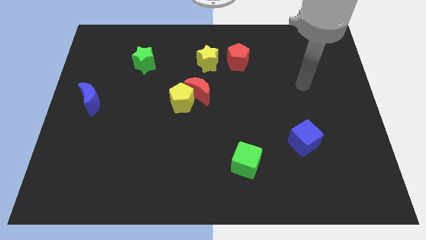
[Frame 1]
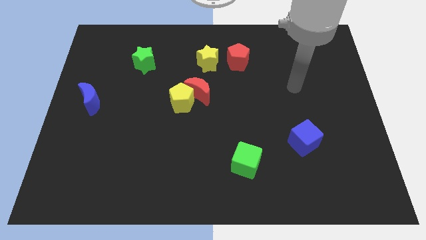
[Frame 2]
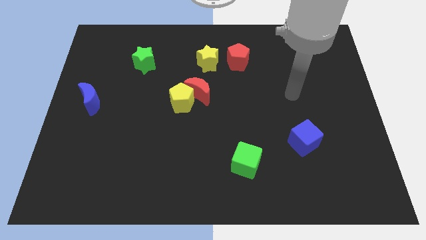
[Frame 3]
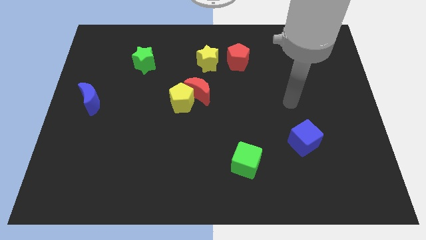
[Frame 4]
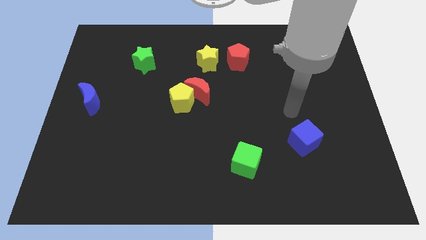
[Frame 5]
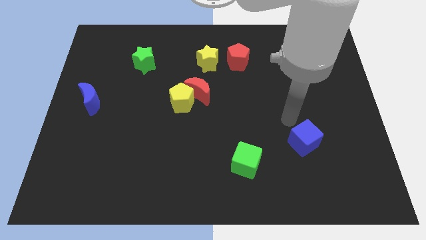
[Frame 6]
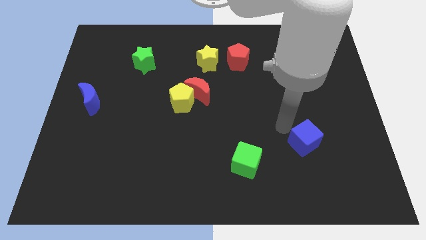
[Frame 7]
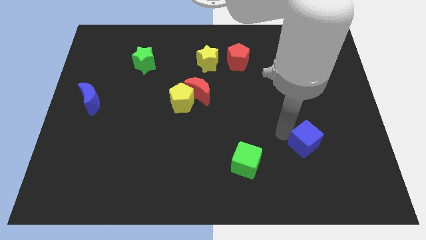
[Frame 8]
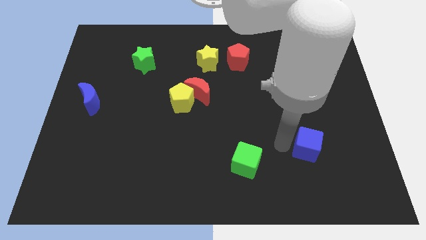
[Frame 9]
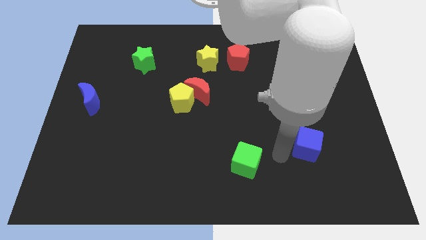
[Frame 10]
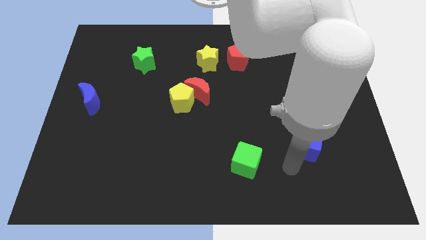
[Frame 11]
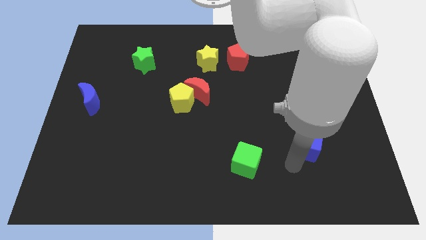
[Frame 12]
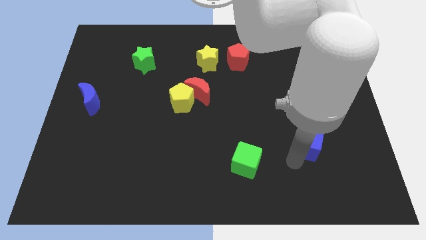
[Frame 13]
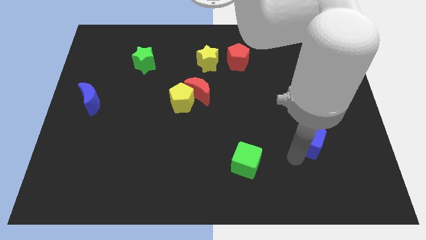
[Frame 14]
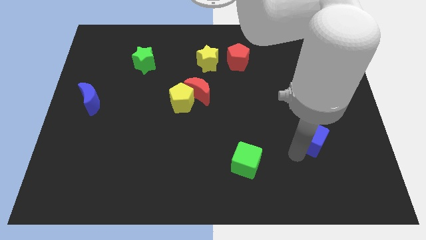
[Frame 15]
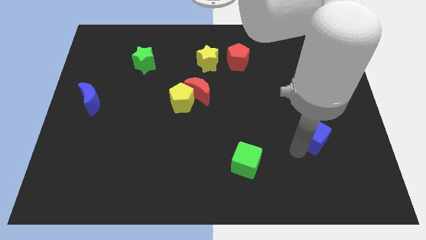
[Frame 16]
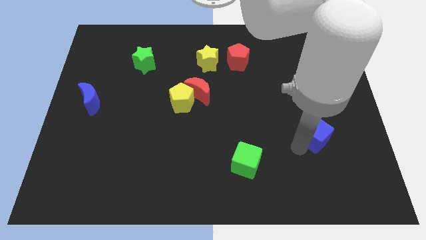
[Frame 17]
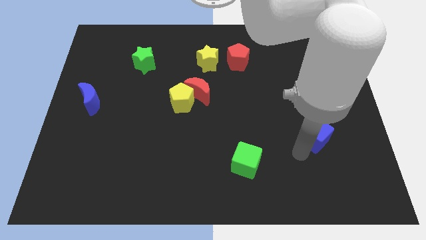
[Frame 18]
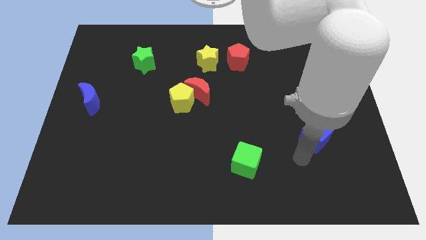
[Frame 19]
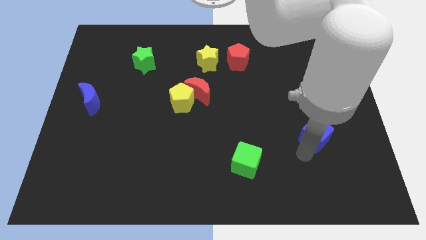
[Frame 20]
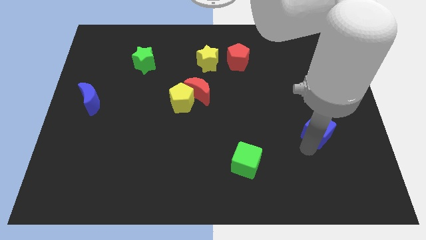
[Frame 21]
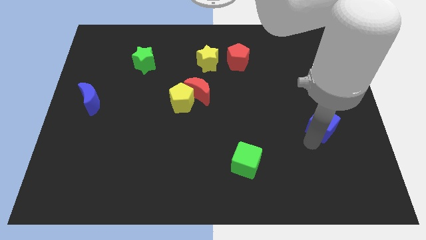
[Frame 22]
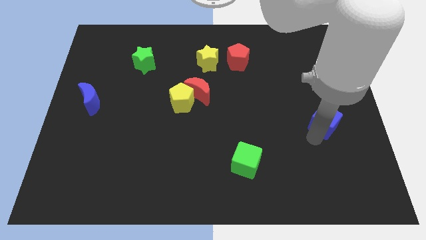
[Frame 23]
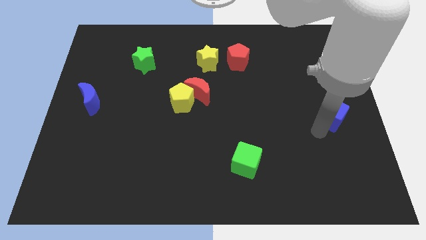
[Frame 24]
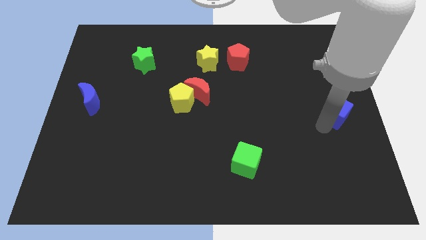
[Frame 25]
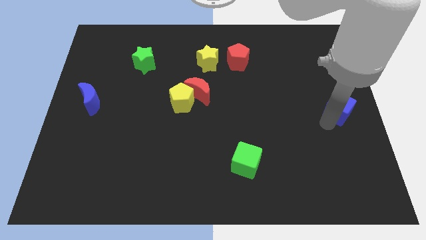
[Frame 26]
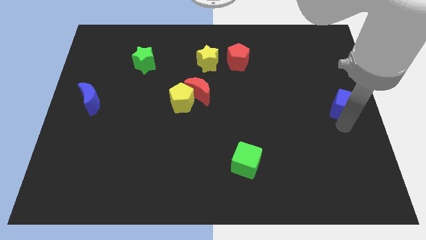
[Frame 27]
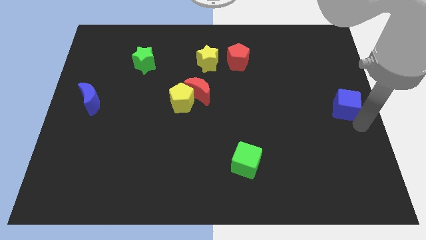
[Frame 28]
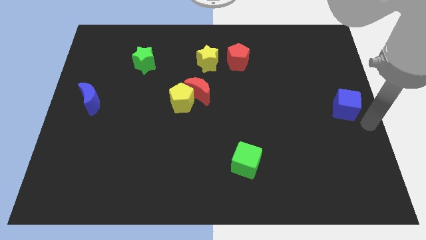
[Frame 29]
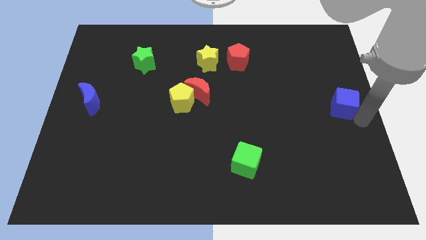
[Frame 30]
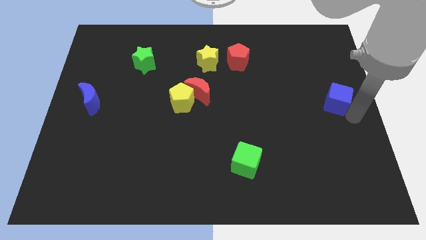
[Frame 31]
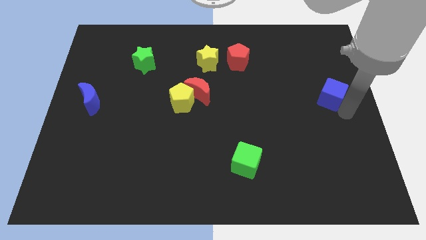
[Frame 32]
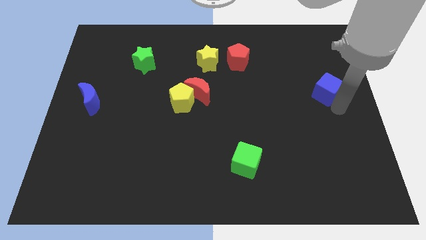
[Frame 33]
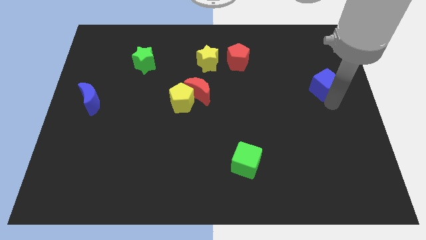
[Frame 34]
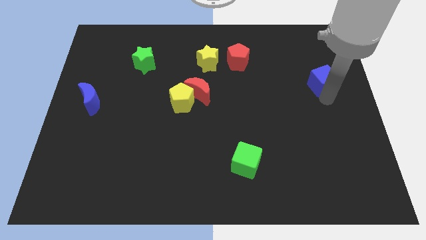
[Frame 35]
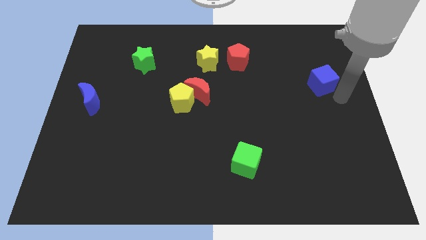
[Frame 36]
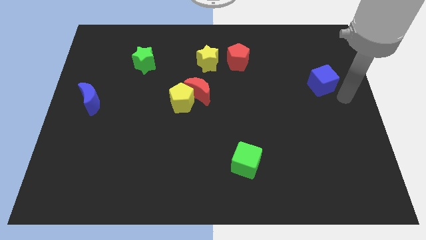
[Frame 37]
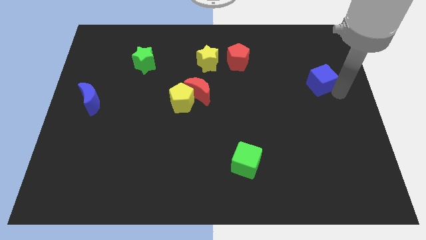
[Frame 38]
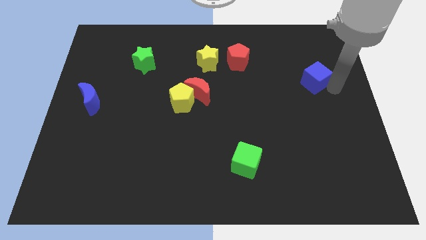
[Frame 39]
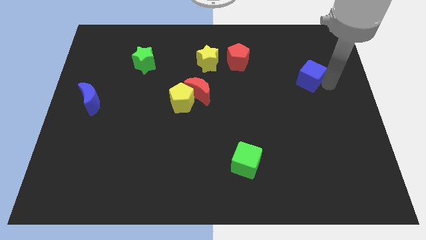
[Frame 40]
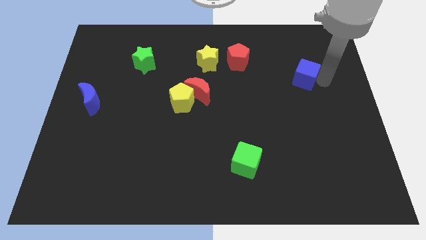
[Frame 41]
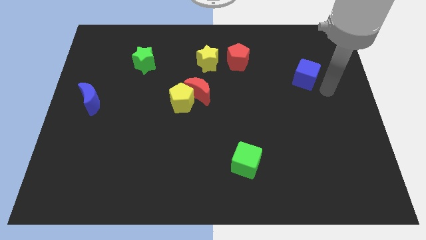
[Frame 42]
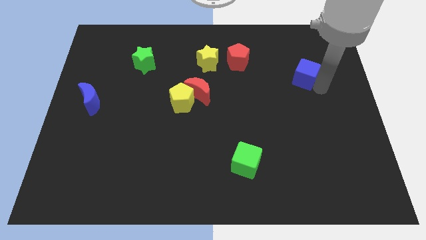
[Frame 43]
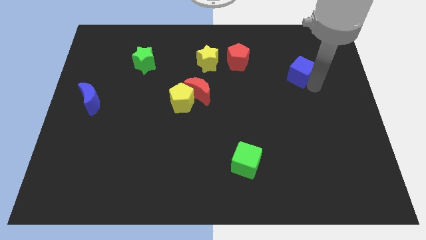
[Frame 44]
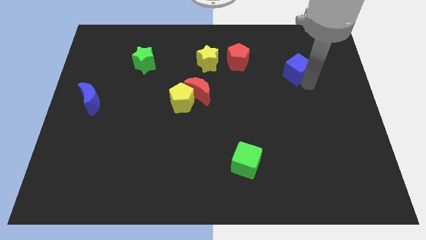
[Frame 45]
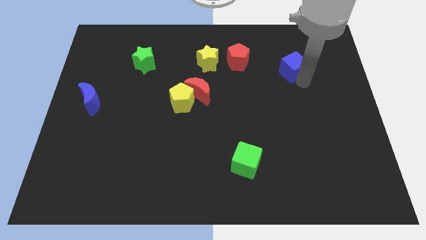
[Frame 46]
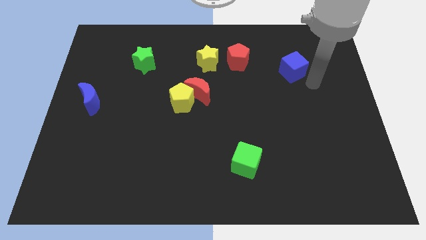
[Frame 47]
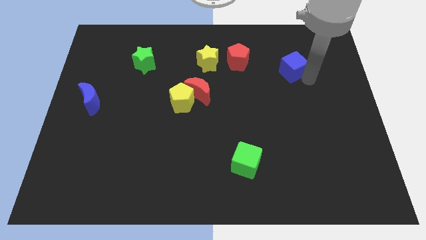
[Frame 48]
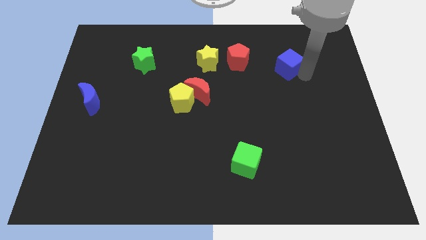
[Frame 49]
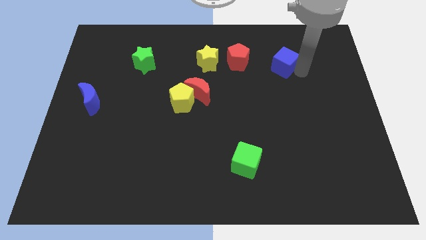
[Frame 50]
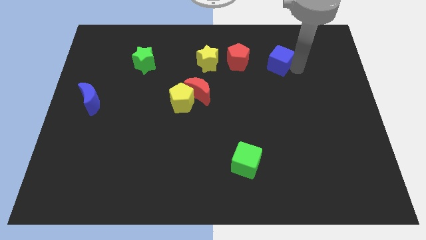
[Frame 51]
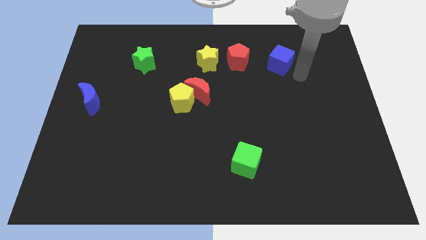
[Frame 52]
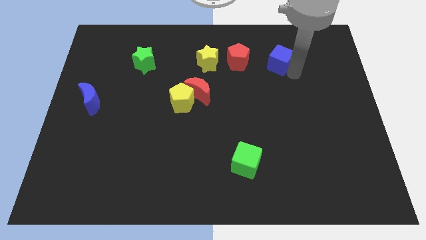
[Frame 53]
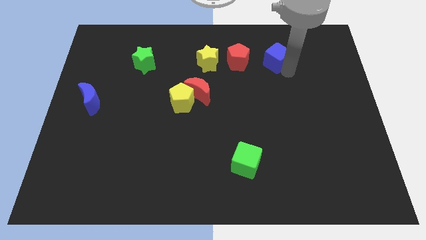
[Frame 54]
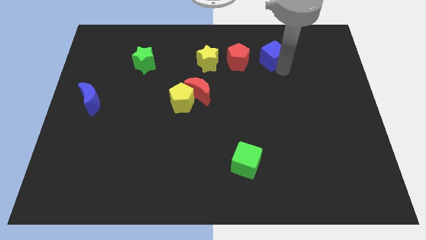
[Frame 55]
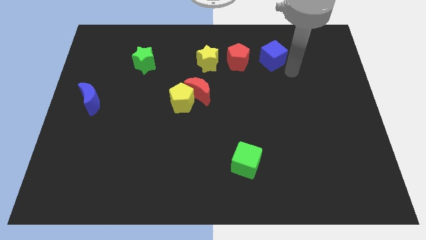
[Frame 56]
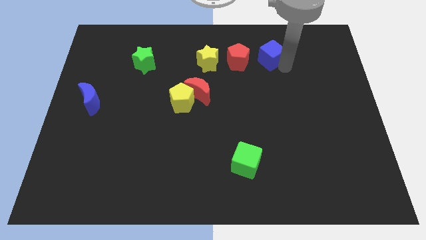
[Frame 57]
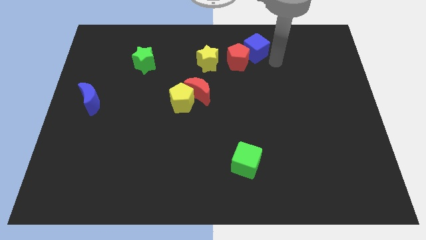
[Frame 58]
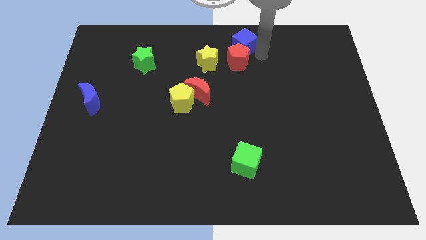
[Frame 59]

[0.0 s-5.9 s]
slide the blue cube to the top side

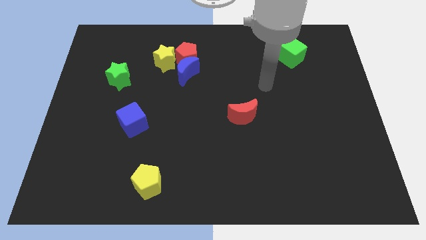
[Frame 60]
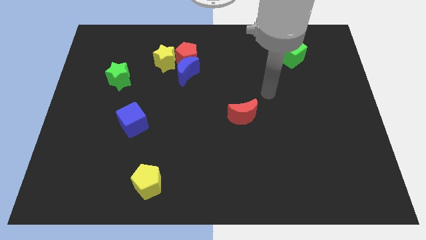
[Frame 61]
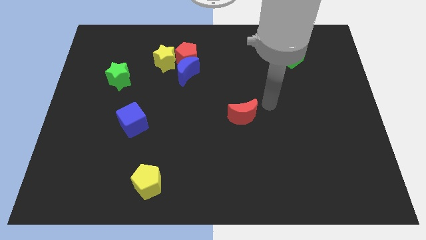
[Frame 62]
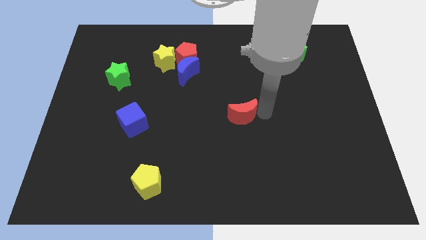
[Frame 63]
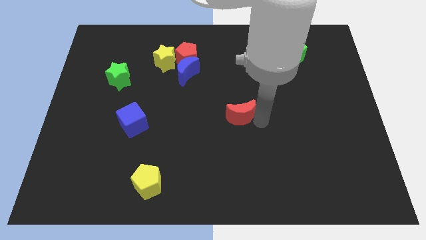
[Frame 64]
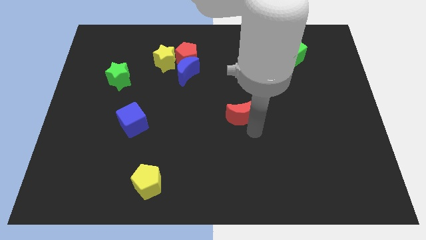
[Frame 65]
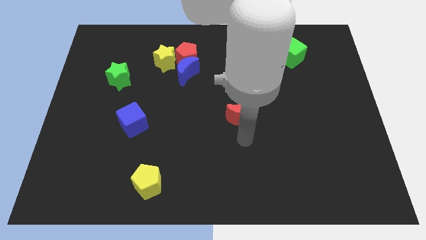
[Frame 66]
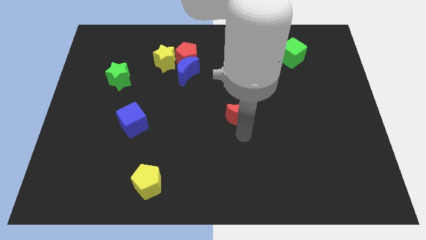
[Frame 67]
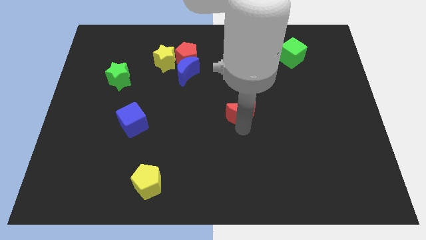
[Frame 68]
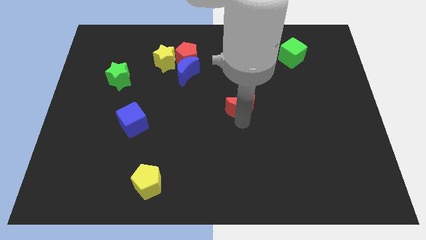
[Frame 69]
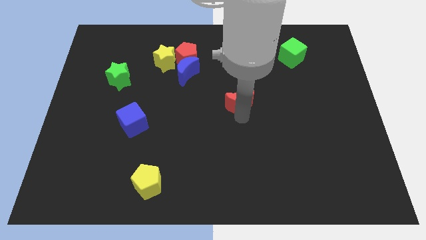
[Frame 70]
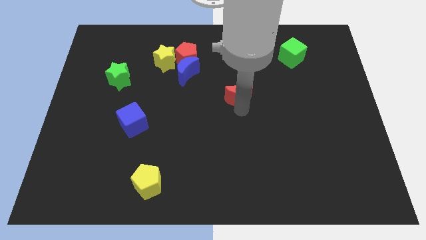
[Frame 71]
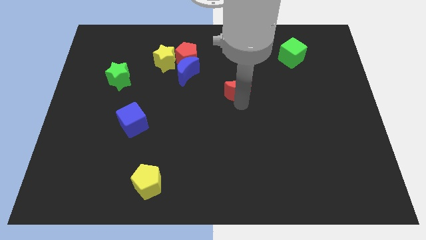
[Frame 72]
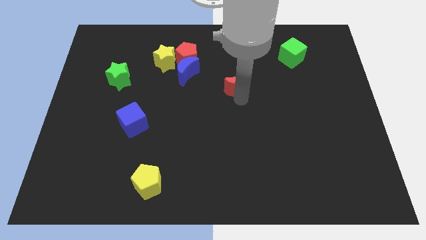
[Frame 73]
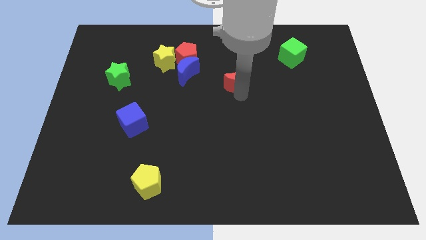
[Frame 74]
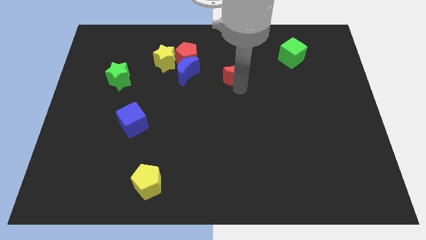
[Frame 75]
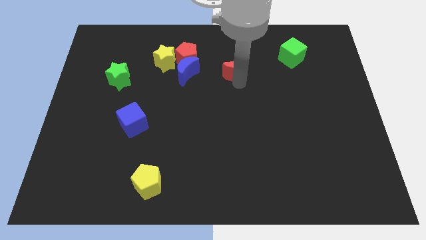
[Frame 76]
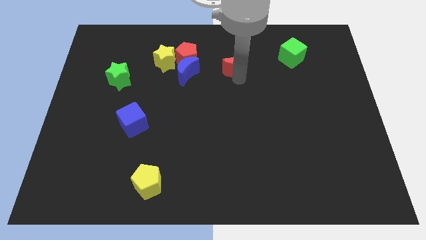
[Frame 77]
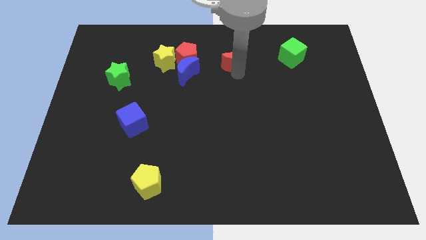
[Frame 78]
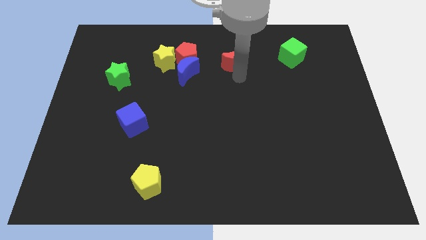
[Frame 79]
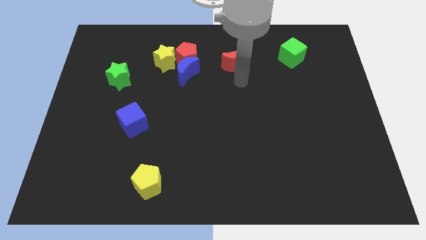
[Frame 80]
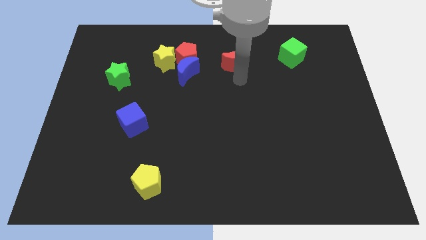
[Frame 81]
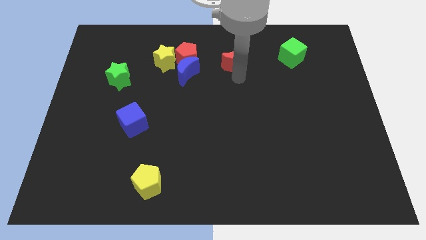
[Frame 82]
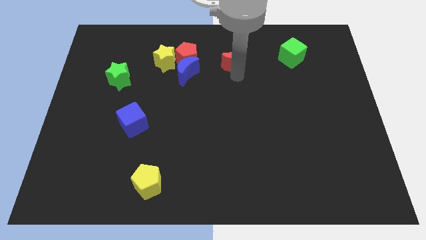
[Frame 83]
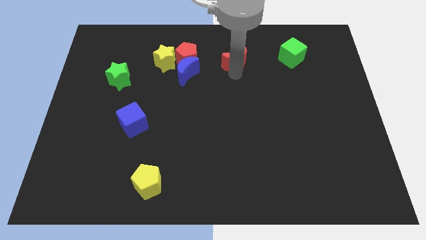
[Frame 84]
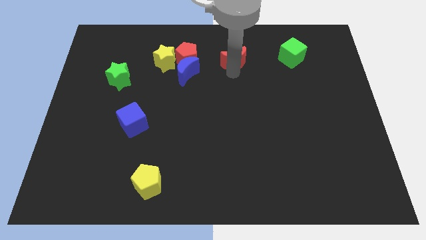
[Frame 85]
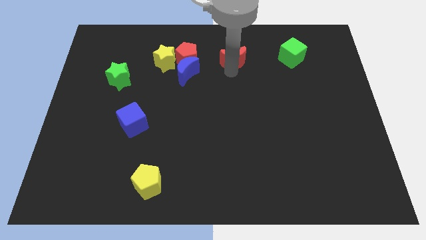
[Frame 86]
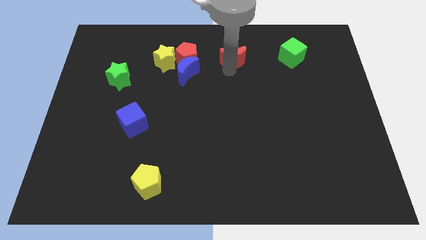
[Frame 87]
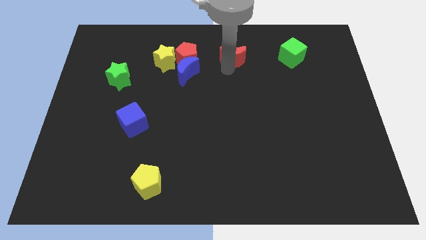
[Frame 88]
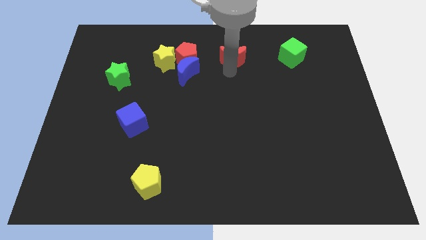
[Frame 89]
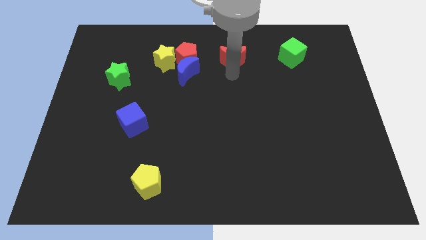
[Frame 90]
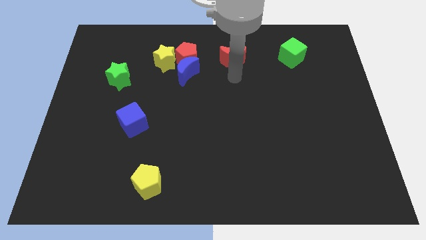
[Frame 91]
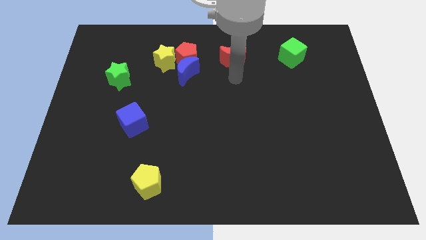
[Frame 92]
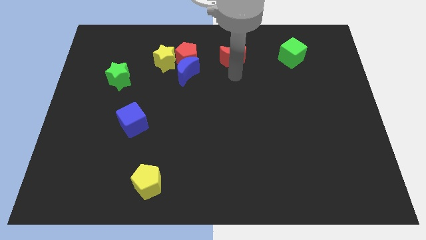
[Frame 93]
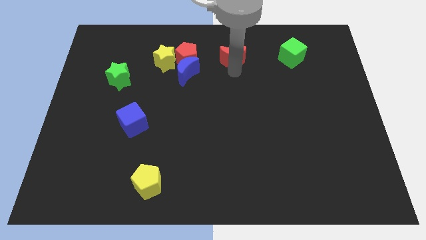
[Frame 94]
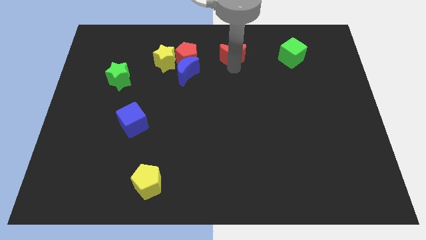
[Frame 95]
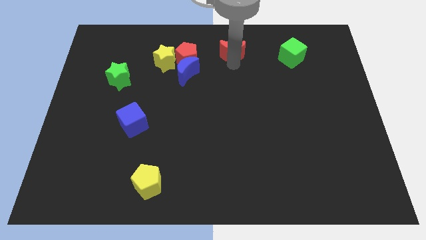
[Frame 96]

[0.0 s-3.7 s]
put the red moon to the top
